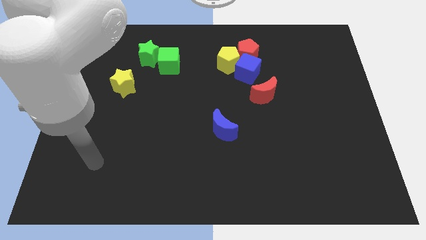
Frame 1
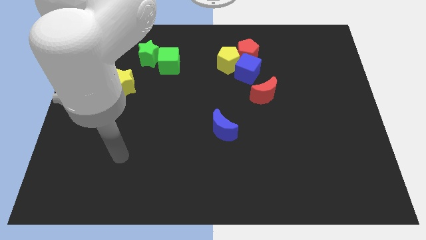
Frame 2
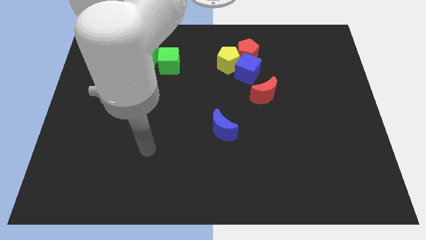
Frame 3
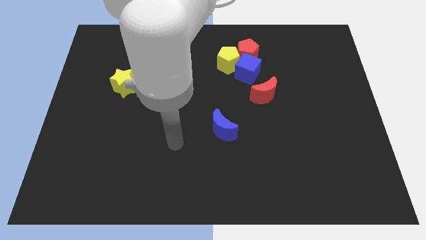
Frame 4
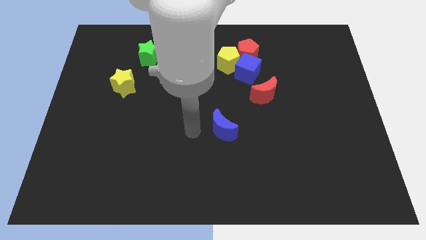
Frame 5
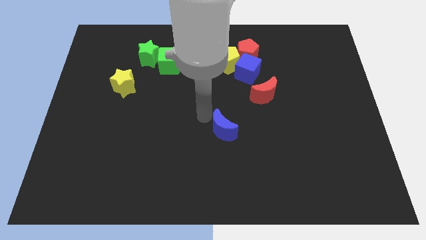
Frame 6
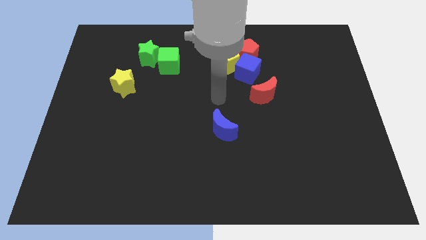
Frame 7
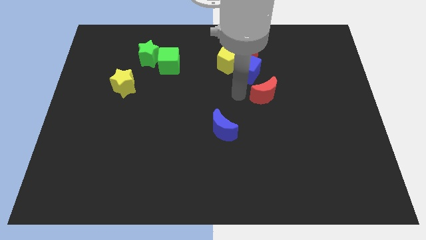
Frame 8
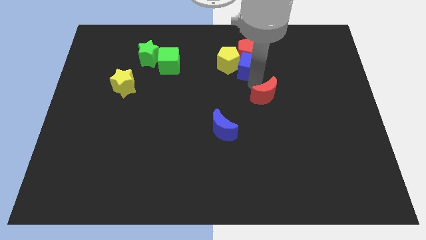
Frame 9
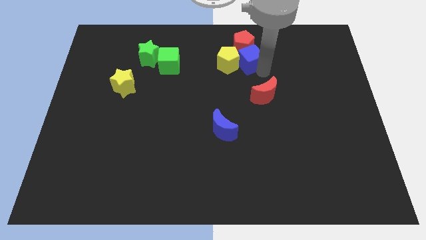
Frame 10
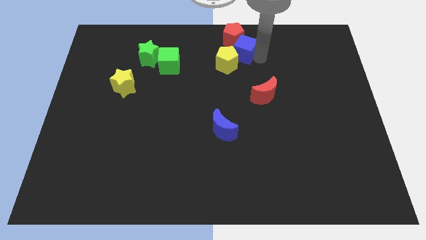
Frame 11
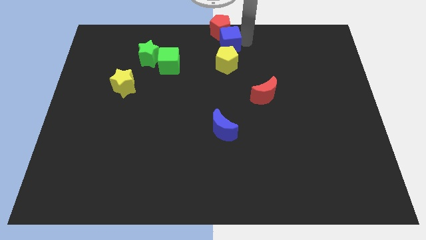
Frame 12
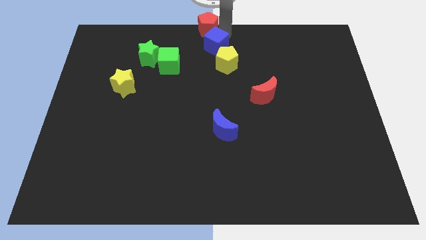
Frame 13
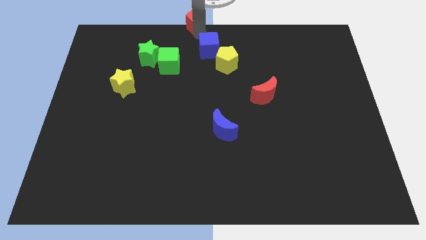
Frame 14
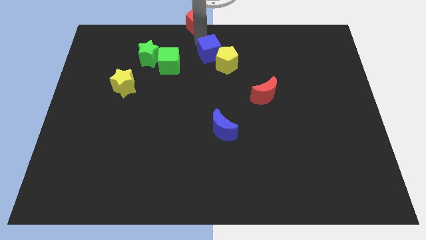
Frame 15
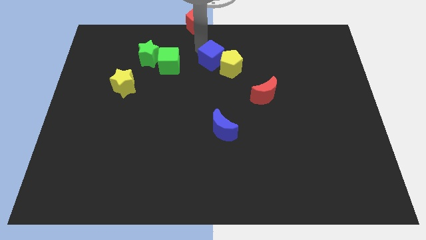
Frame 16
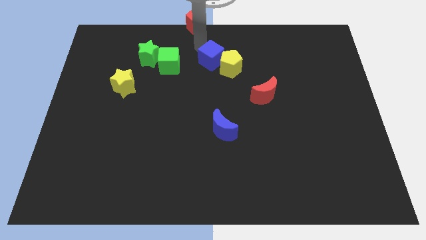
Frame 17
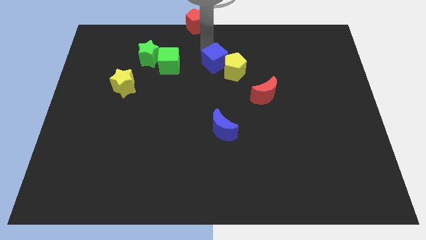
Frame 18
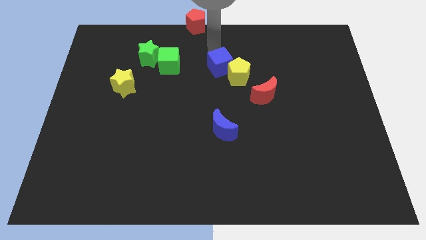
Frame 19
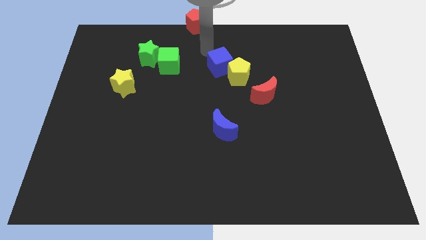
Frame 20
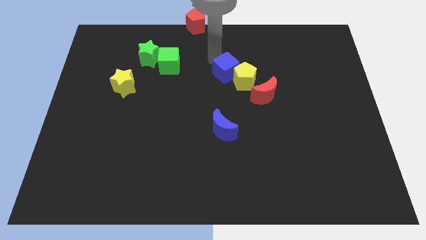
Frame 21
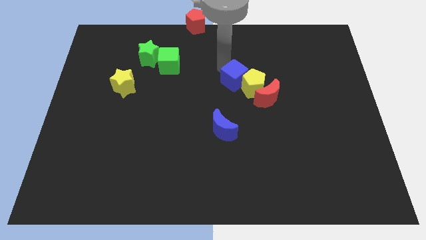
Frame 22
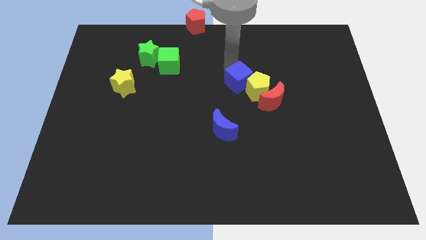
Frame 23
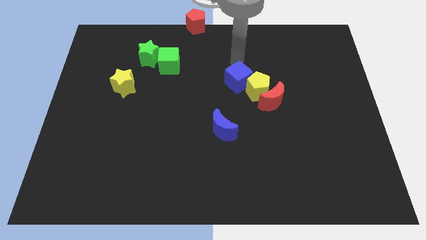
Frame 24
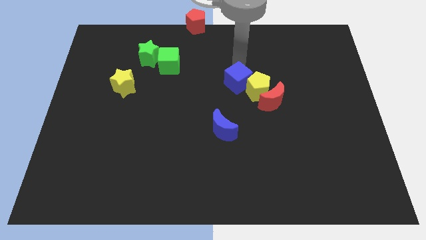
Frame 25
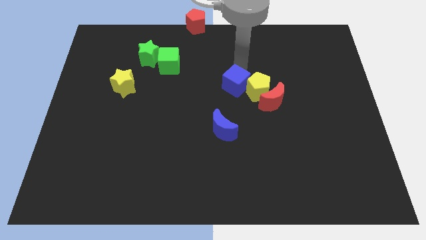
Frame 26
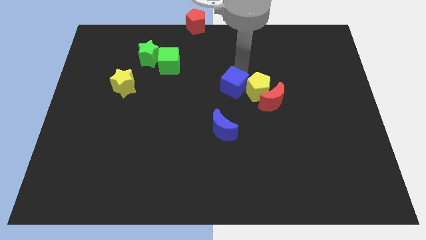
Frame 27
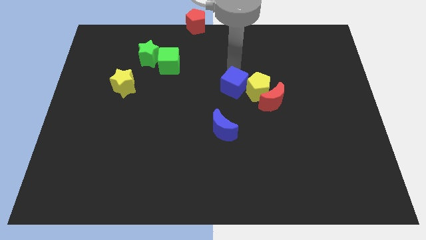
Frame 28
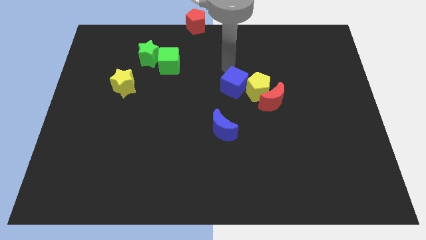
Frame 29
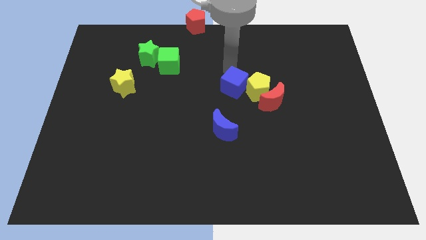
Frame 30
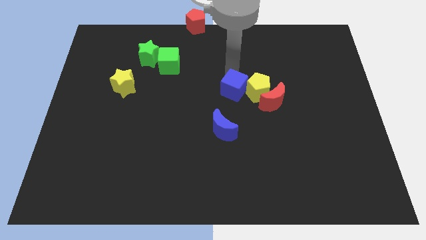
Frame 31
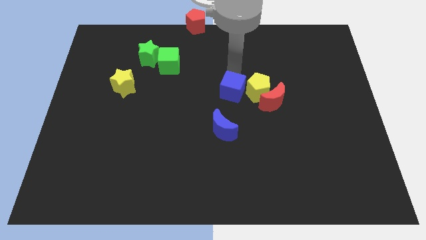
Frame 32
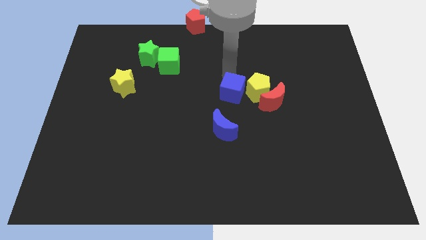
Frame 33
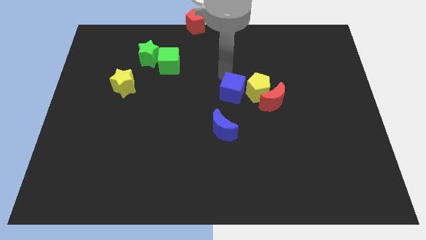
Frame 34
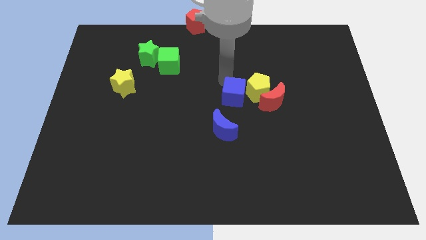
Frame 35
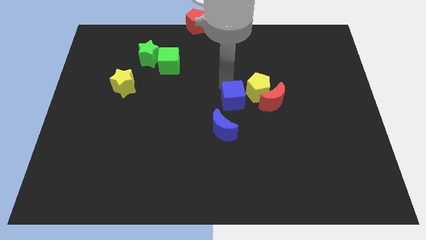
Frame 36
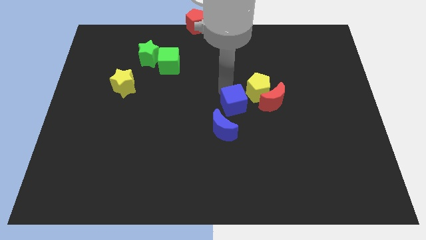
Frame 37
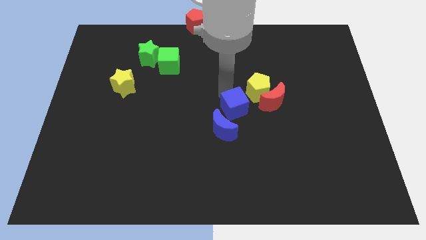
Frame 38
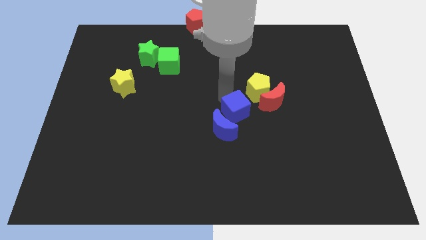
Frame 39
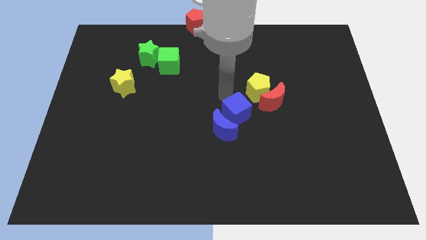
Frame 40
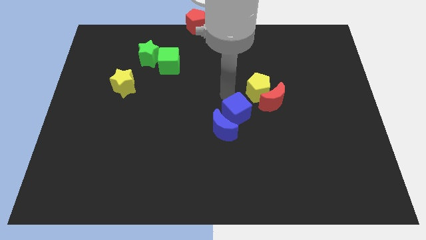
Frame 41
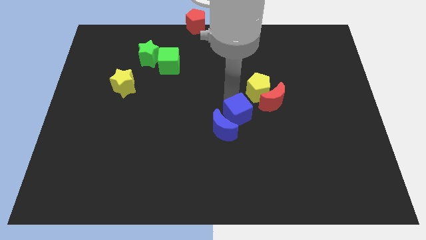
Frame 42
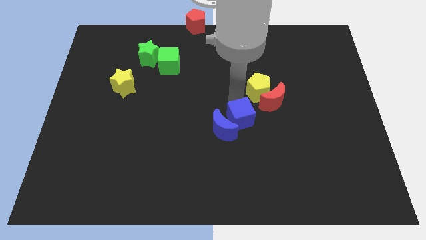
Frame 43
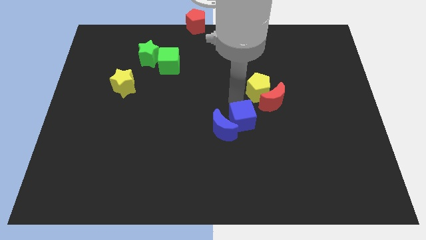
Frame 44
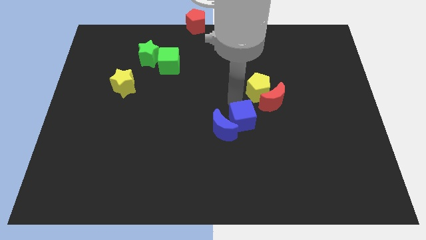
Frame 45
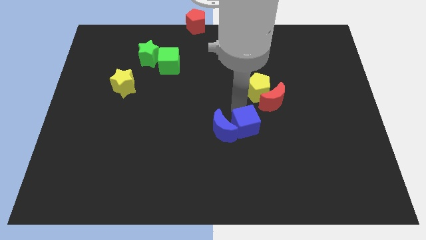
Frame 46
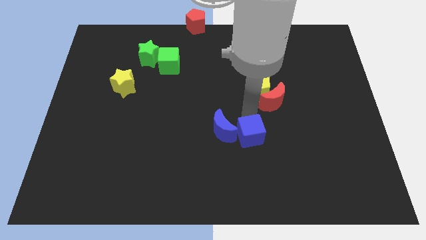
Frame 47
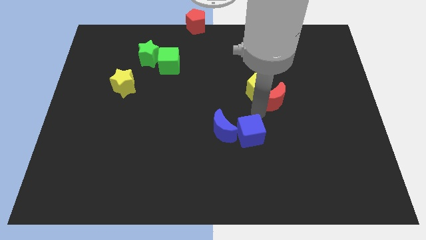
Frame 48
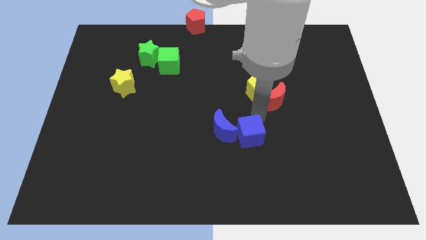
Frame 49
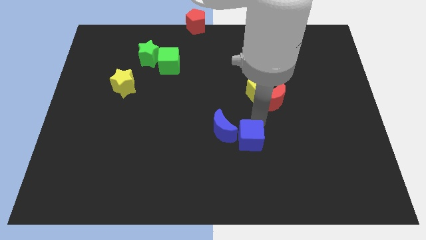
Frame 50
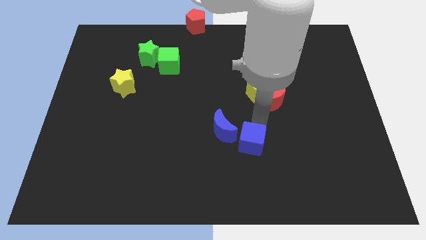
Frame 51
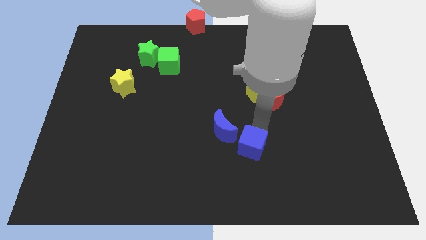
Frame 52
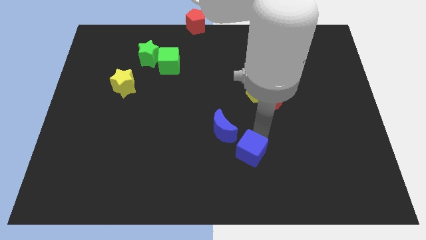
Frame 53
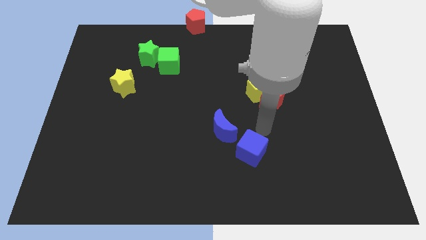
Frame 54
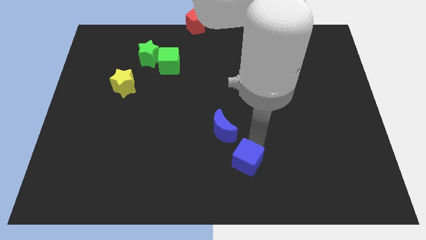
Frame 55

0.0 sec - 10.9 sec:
slide the blue cube to the bottom side

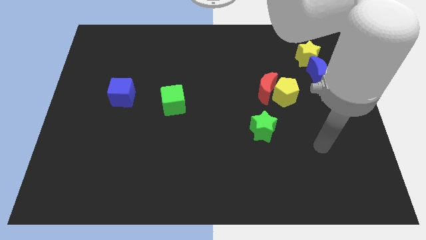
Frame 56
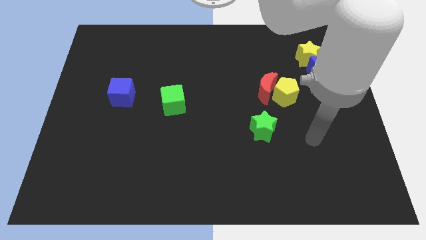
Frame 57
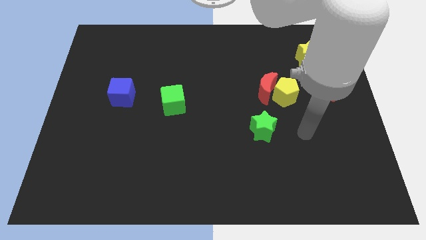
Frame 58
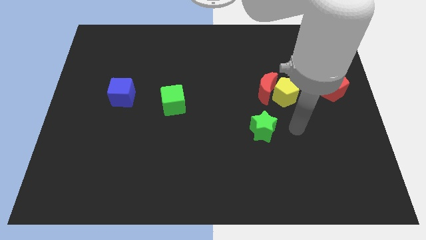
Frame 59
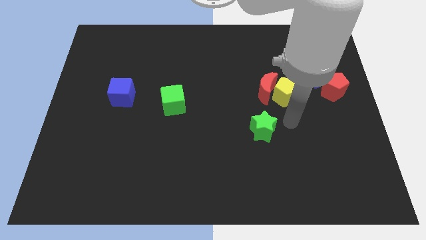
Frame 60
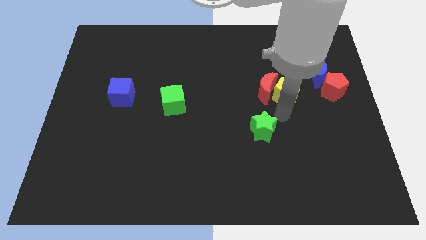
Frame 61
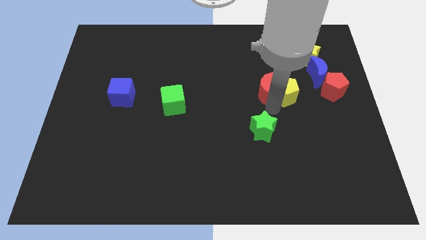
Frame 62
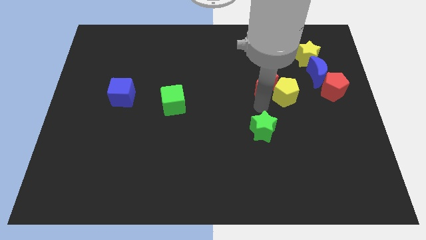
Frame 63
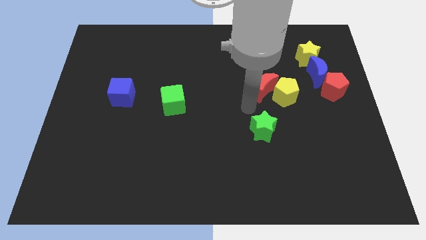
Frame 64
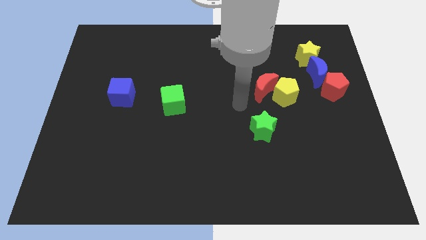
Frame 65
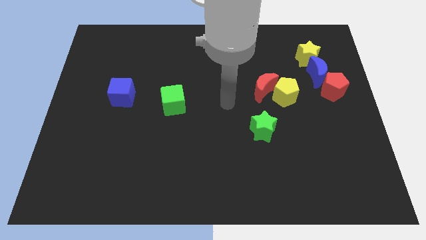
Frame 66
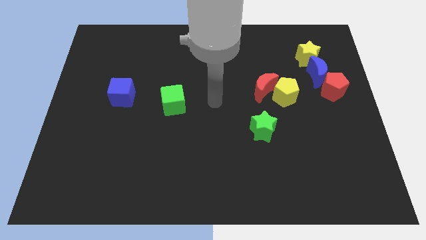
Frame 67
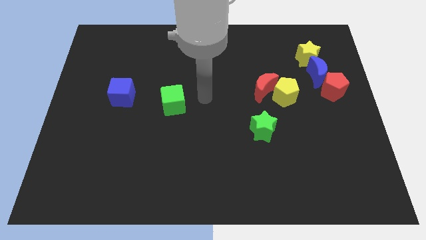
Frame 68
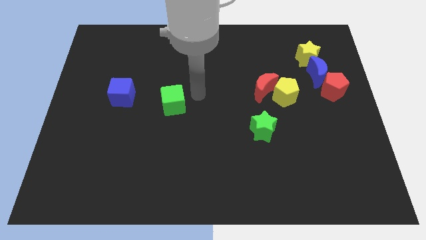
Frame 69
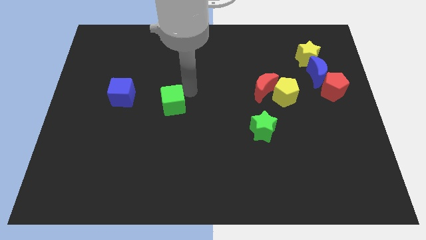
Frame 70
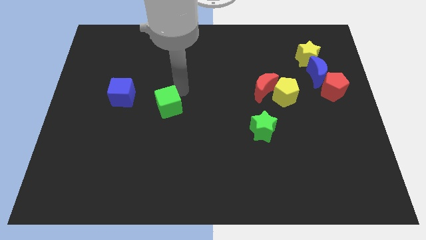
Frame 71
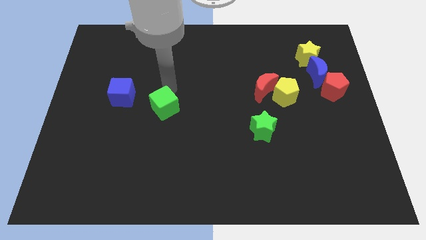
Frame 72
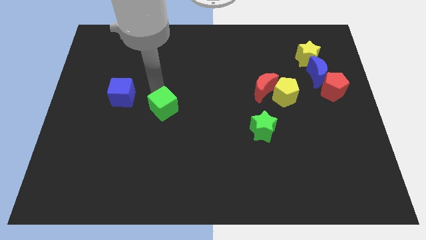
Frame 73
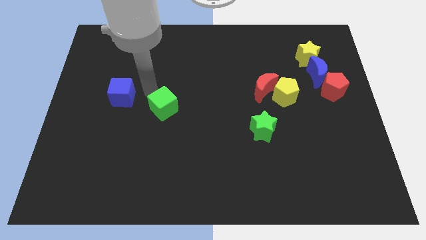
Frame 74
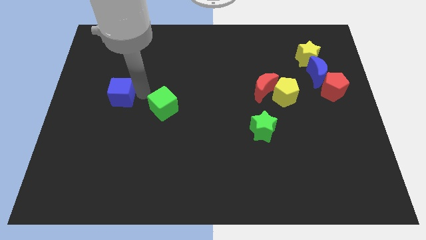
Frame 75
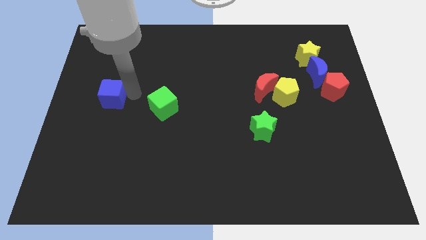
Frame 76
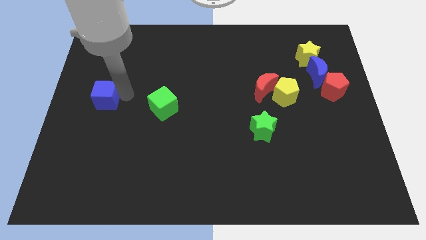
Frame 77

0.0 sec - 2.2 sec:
slide the blue cube to the center left
